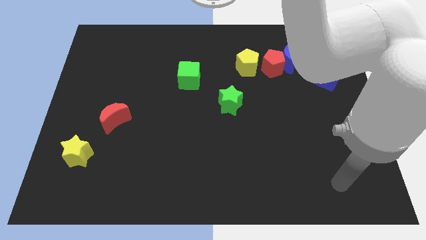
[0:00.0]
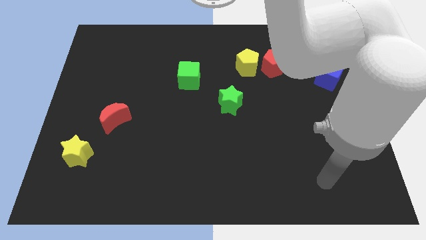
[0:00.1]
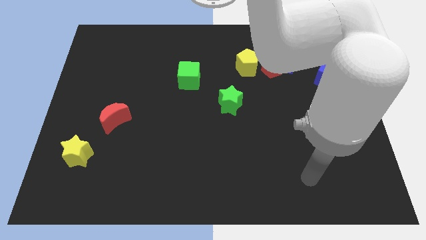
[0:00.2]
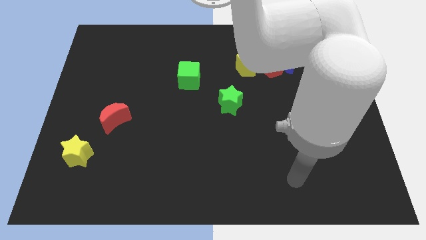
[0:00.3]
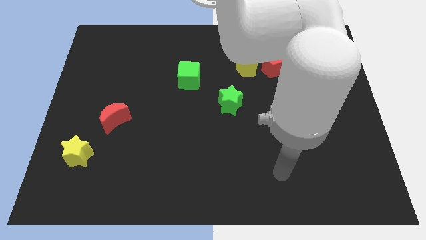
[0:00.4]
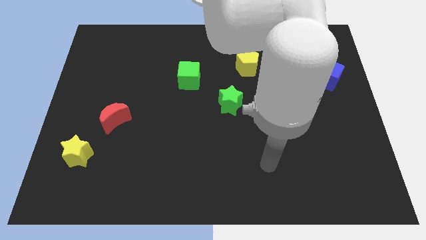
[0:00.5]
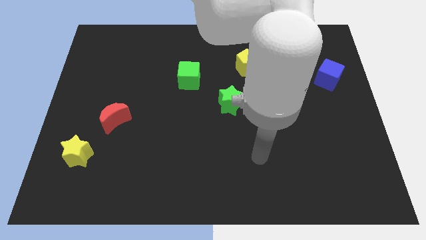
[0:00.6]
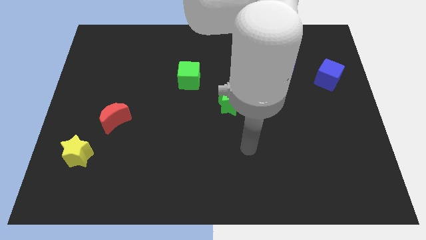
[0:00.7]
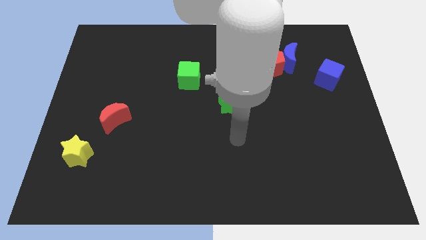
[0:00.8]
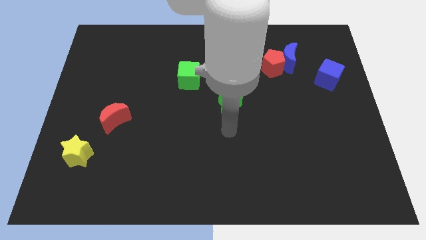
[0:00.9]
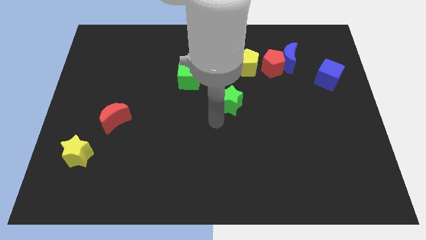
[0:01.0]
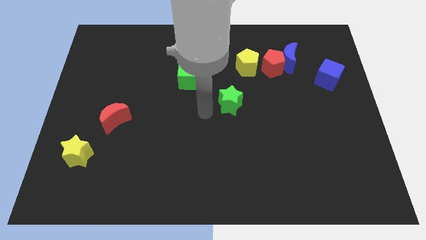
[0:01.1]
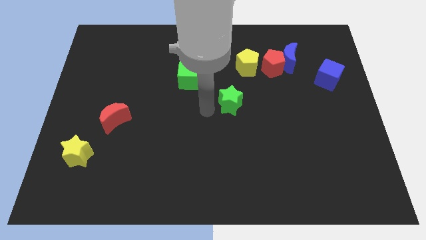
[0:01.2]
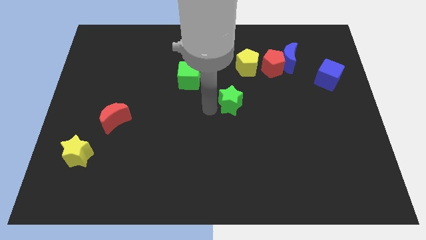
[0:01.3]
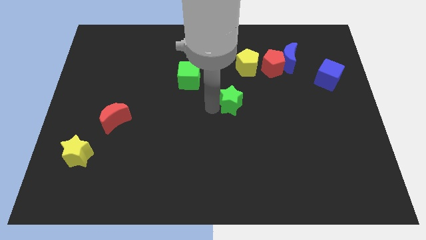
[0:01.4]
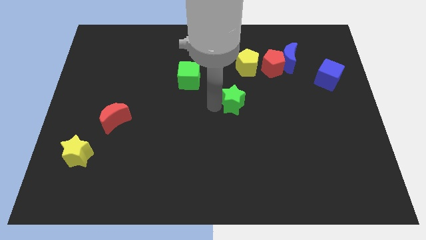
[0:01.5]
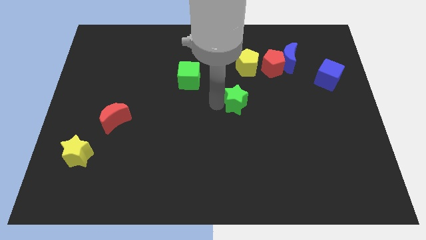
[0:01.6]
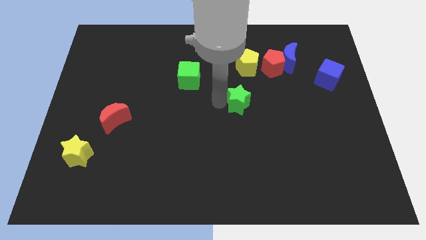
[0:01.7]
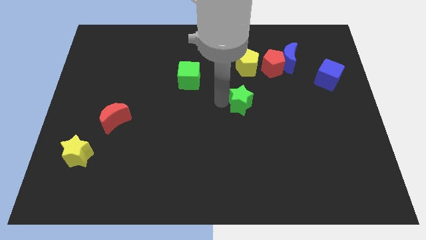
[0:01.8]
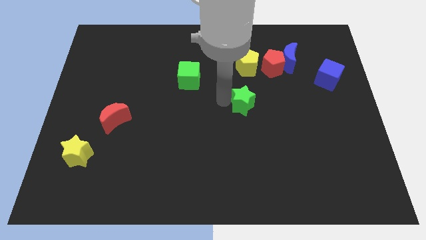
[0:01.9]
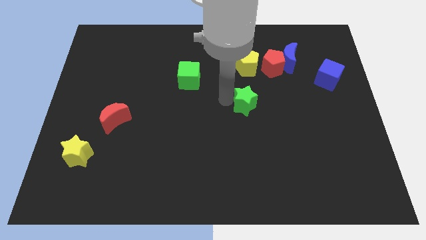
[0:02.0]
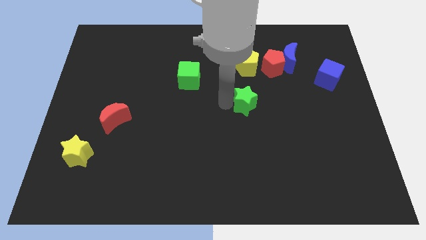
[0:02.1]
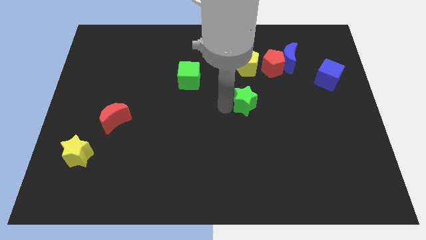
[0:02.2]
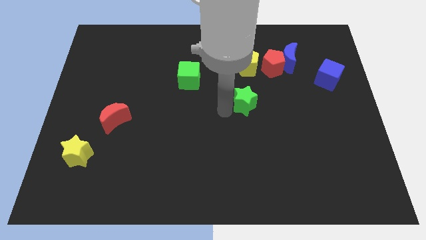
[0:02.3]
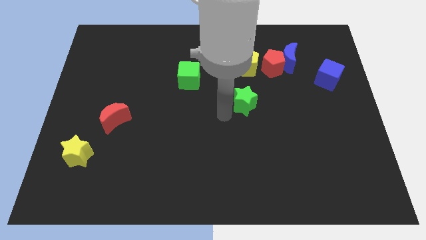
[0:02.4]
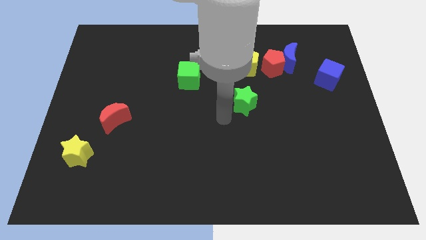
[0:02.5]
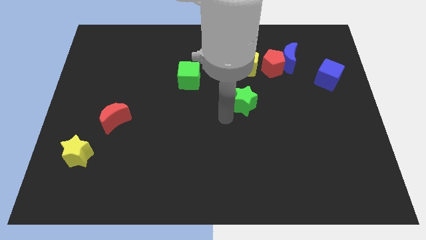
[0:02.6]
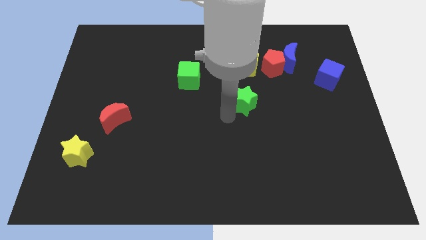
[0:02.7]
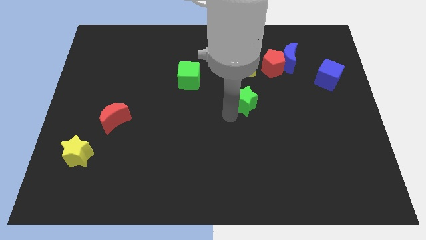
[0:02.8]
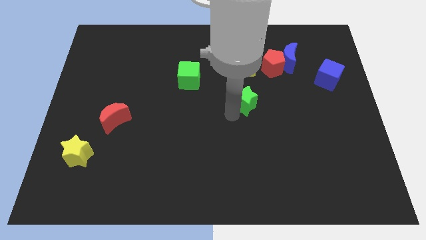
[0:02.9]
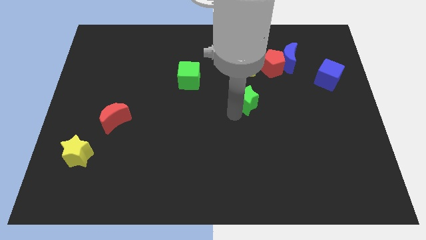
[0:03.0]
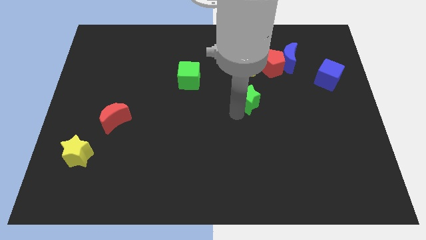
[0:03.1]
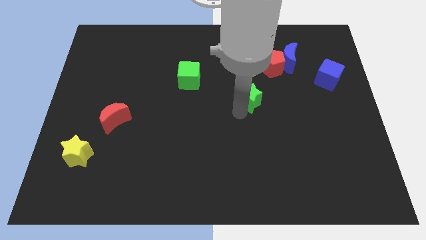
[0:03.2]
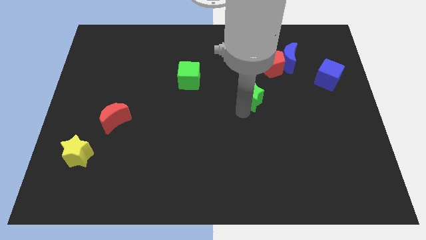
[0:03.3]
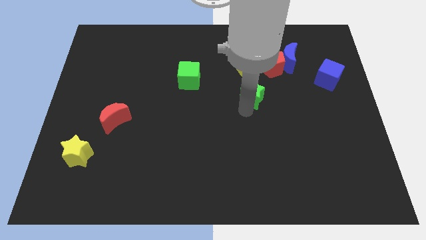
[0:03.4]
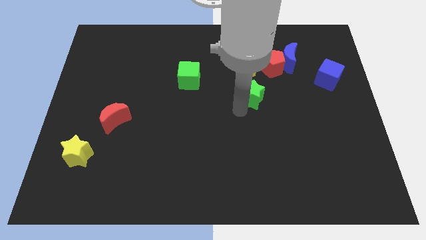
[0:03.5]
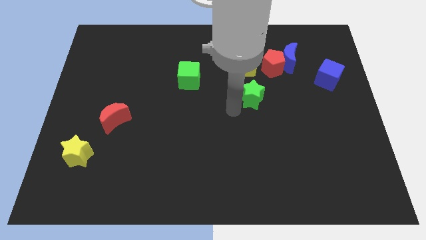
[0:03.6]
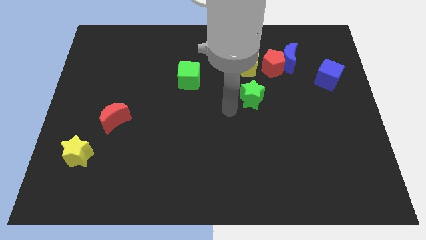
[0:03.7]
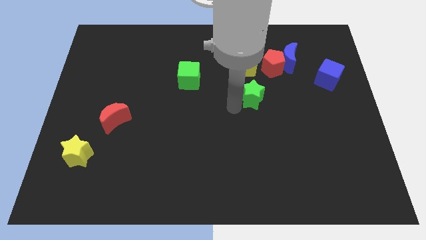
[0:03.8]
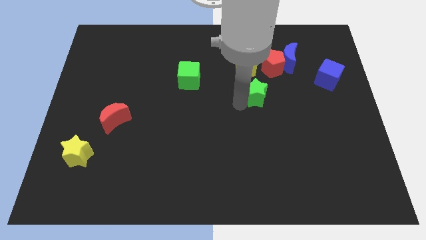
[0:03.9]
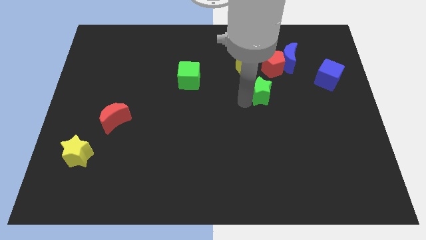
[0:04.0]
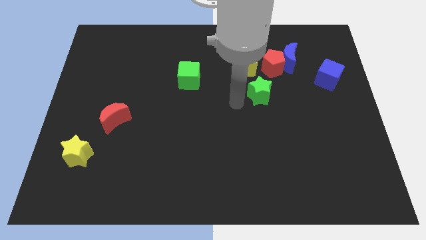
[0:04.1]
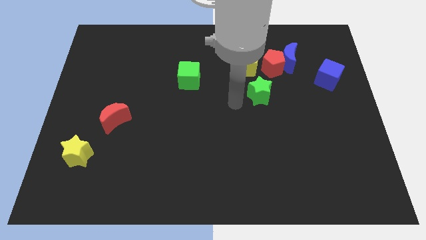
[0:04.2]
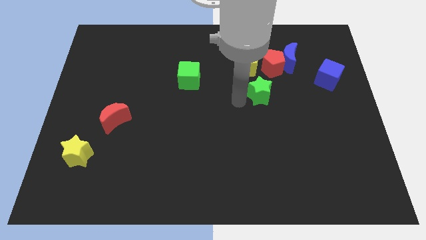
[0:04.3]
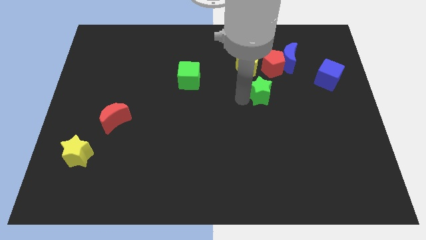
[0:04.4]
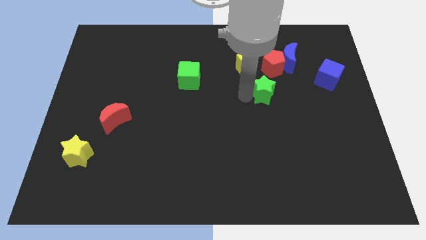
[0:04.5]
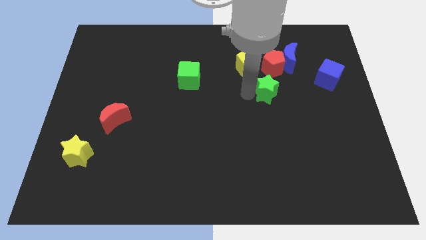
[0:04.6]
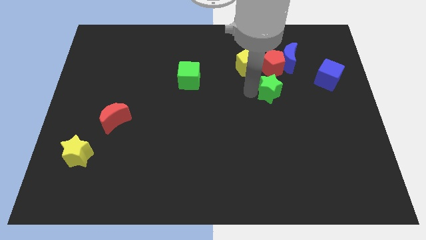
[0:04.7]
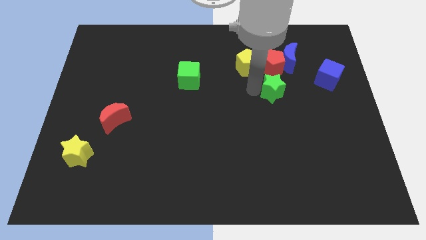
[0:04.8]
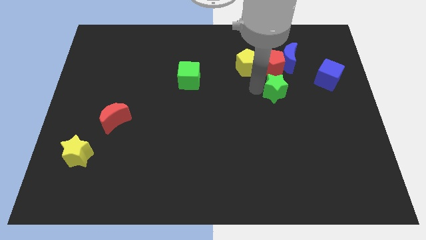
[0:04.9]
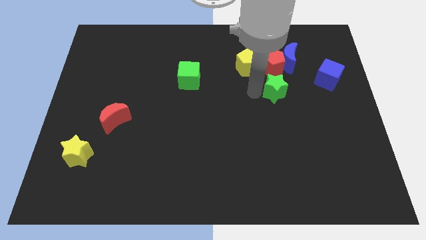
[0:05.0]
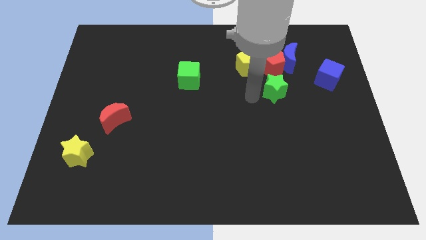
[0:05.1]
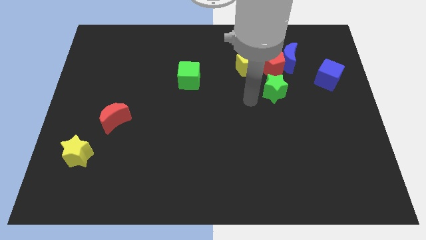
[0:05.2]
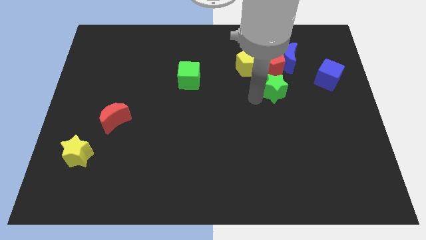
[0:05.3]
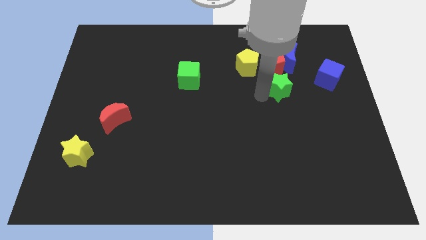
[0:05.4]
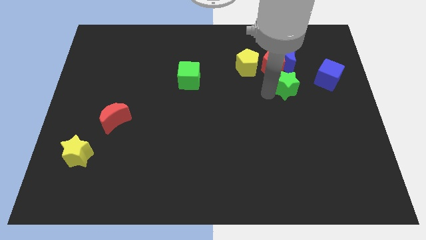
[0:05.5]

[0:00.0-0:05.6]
slide the green star to the bottom right side of the red pentagon
